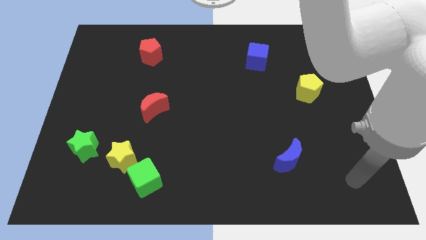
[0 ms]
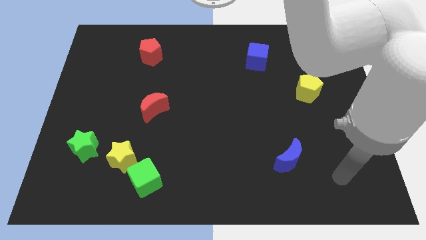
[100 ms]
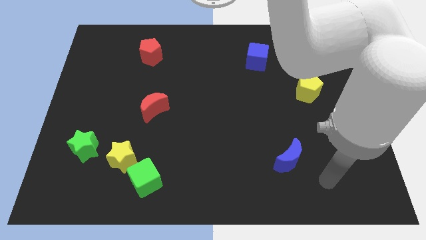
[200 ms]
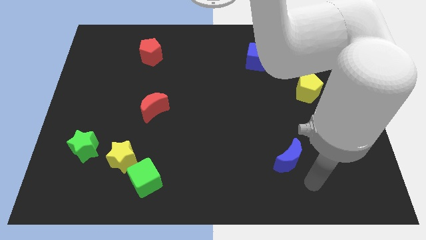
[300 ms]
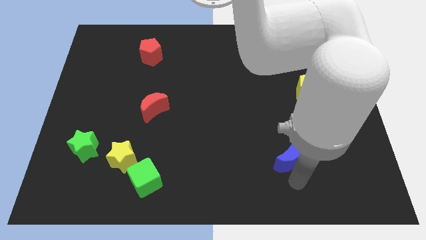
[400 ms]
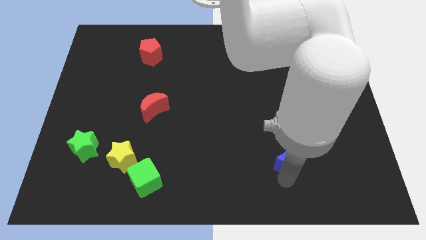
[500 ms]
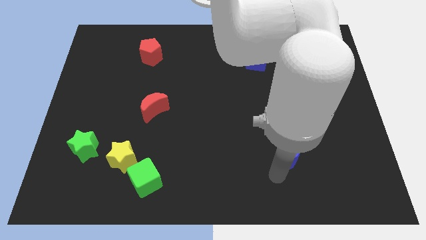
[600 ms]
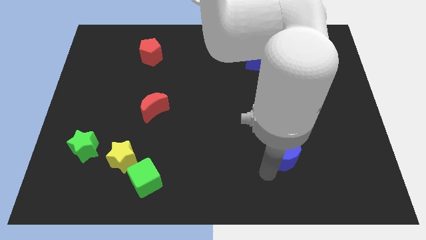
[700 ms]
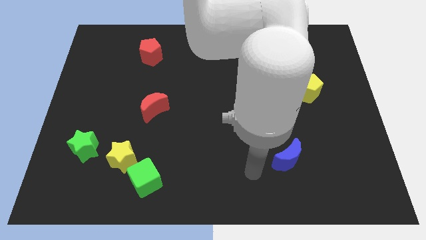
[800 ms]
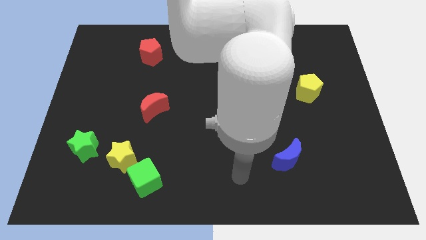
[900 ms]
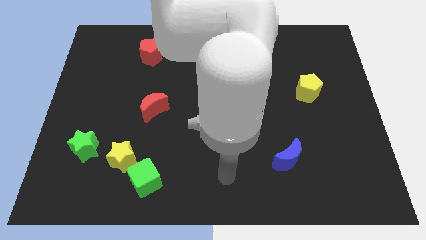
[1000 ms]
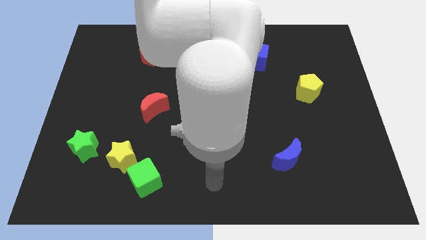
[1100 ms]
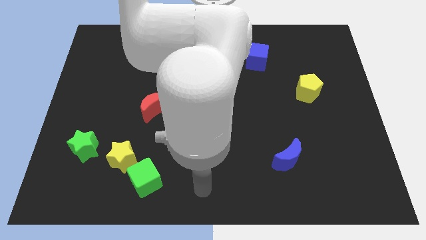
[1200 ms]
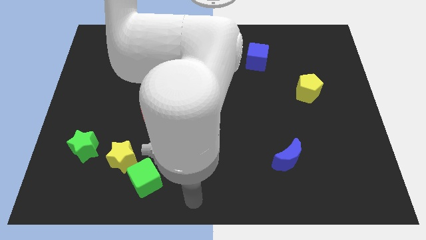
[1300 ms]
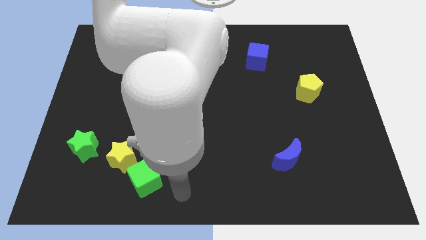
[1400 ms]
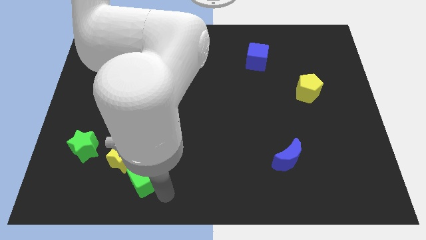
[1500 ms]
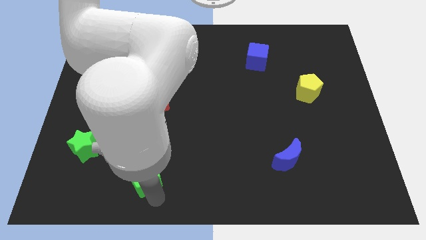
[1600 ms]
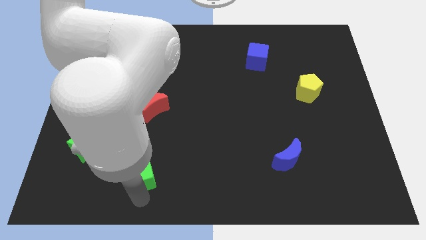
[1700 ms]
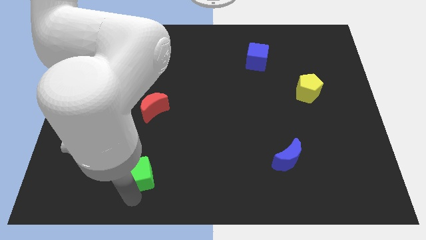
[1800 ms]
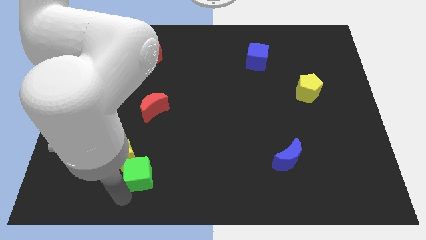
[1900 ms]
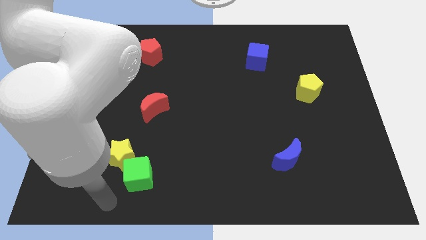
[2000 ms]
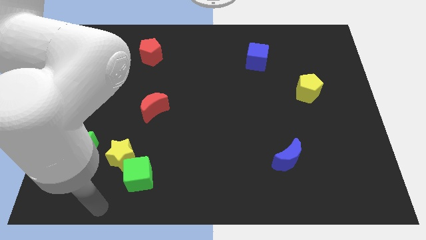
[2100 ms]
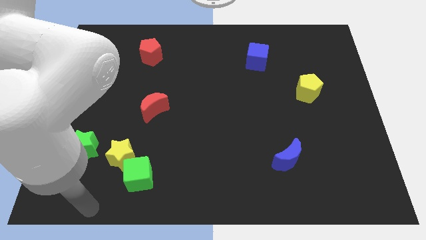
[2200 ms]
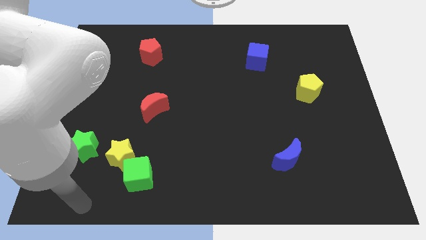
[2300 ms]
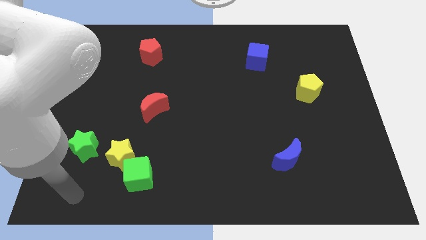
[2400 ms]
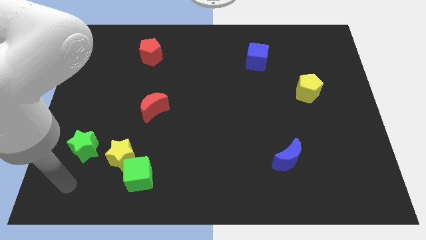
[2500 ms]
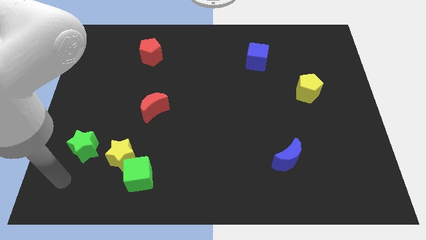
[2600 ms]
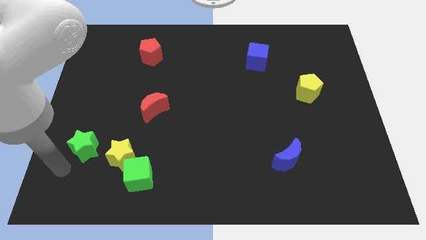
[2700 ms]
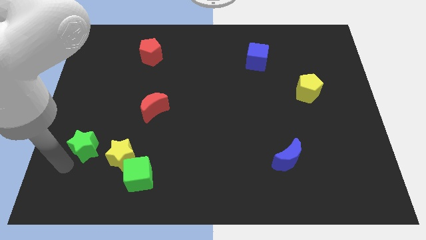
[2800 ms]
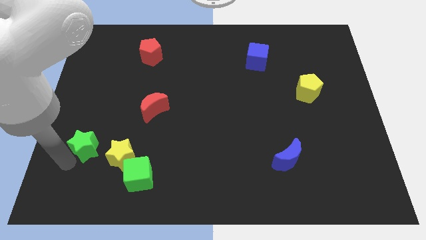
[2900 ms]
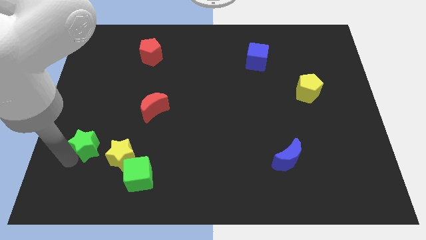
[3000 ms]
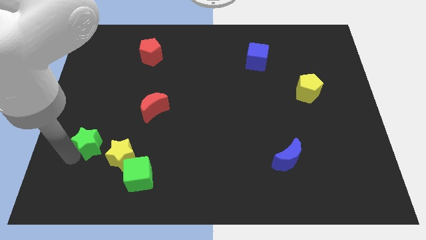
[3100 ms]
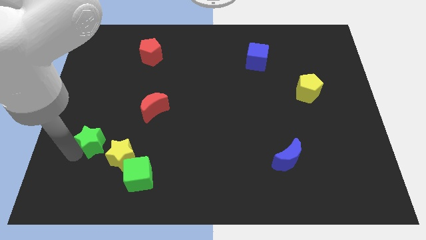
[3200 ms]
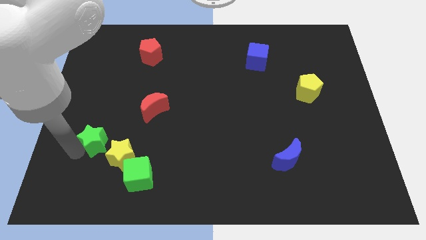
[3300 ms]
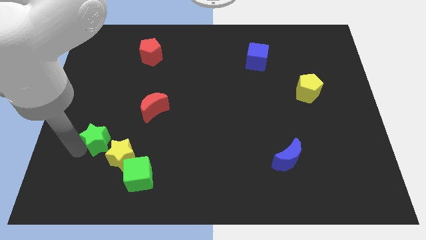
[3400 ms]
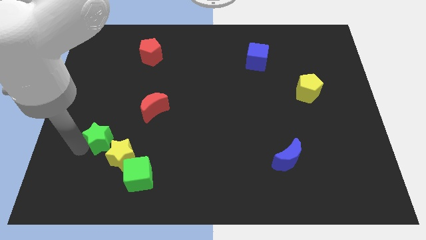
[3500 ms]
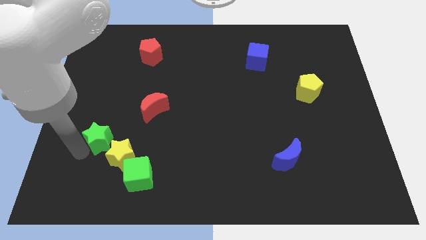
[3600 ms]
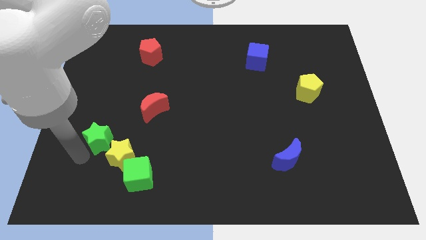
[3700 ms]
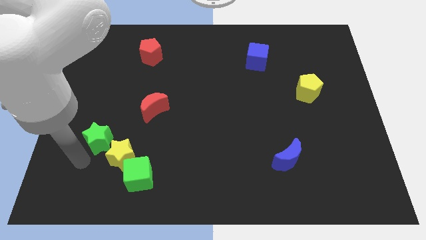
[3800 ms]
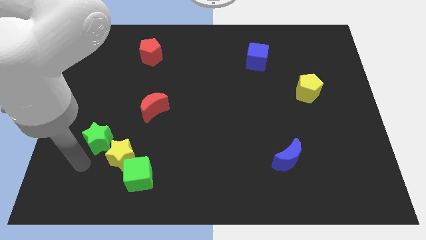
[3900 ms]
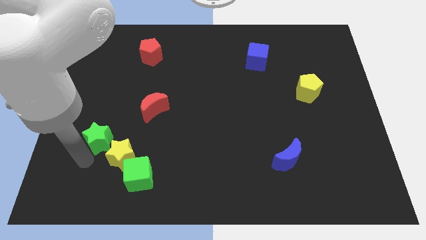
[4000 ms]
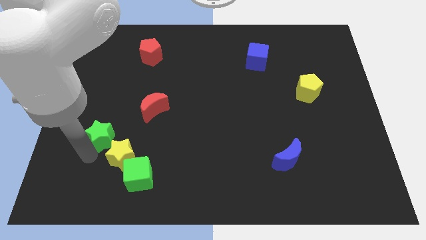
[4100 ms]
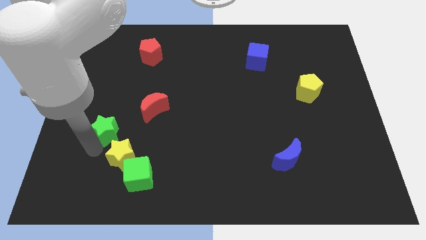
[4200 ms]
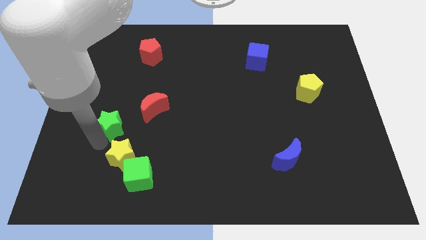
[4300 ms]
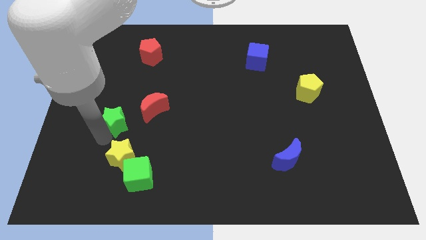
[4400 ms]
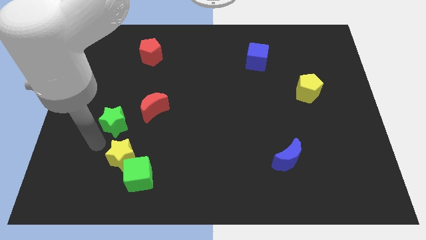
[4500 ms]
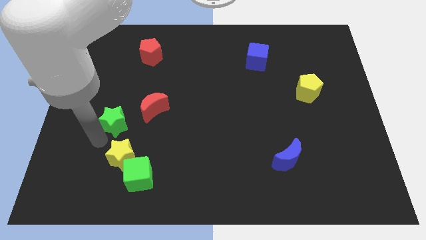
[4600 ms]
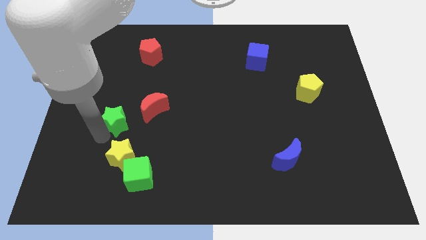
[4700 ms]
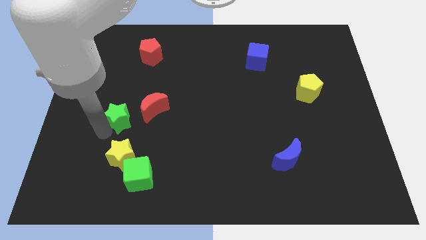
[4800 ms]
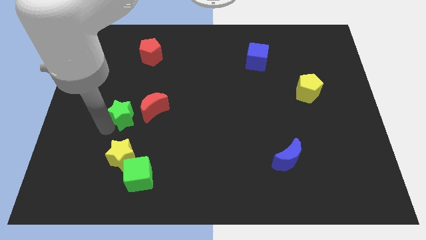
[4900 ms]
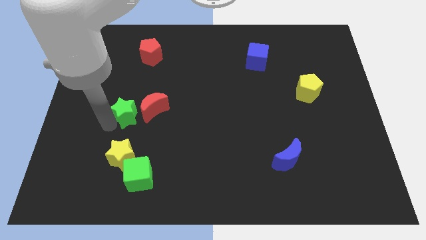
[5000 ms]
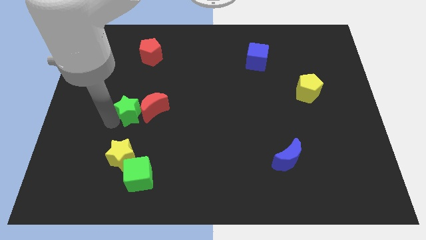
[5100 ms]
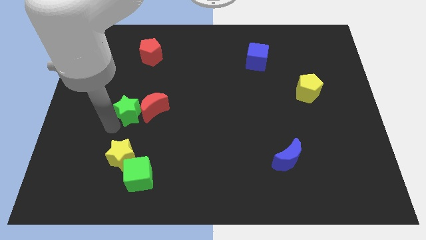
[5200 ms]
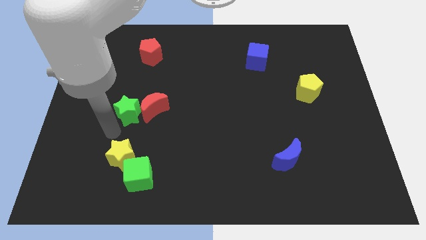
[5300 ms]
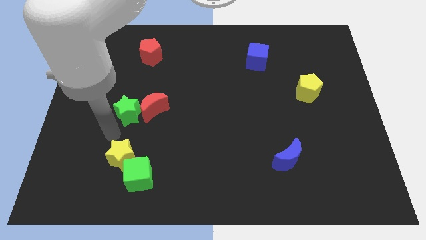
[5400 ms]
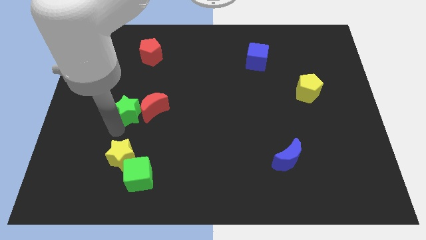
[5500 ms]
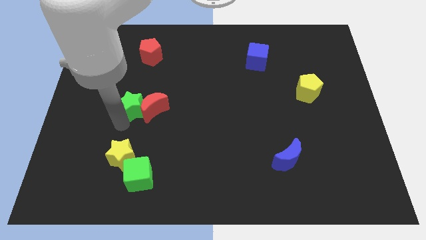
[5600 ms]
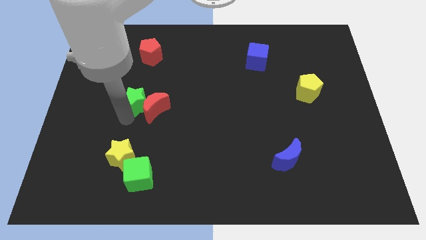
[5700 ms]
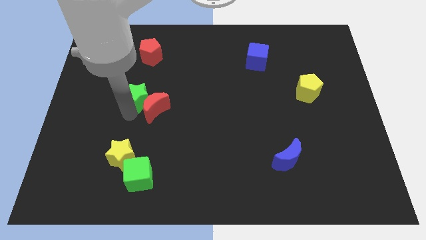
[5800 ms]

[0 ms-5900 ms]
slide the green star above the red moon

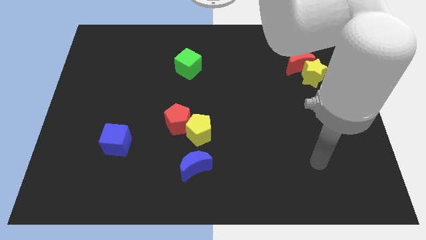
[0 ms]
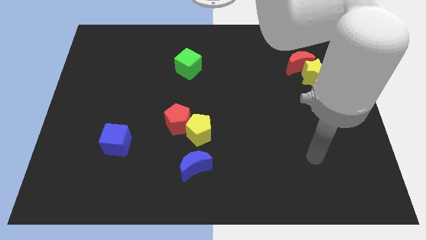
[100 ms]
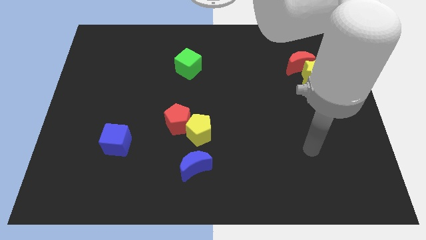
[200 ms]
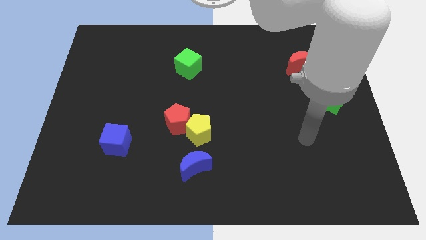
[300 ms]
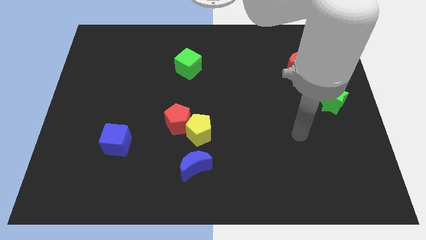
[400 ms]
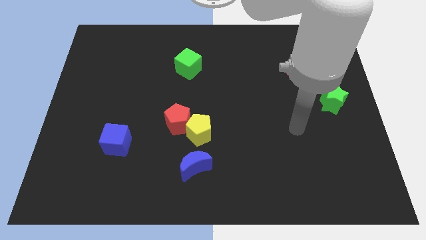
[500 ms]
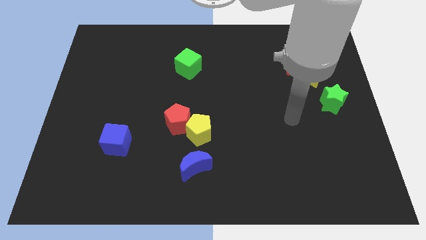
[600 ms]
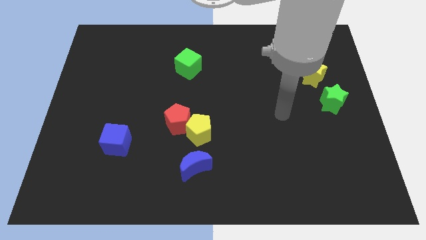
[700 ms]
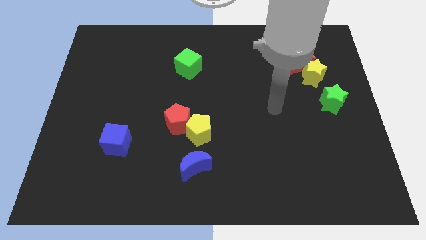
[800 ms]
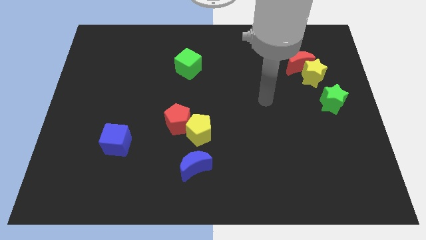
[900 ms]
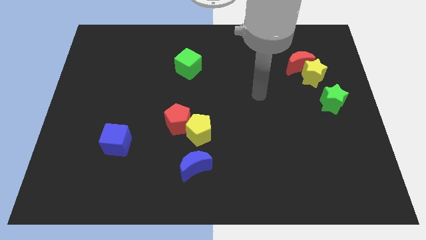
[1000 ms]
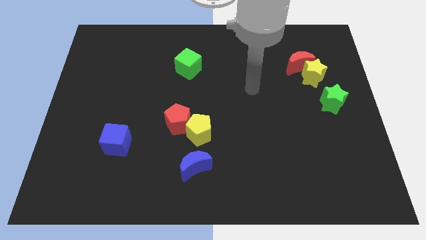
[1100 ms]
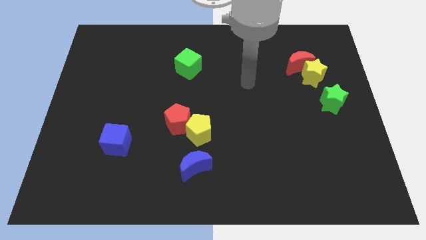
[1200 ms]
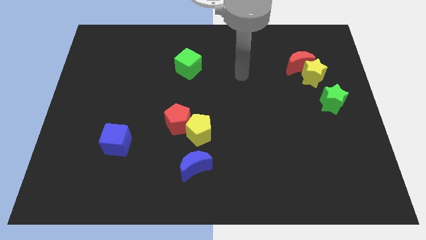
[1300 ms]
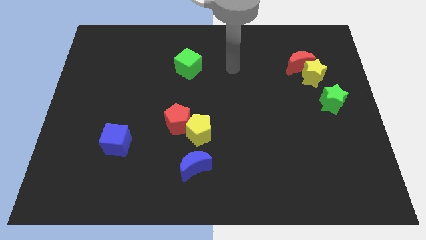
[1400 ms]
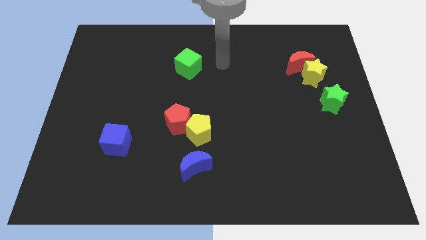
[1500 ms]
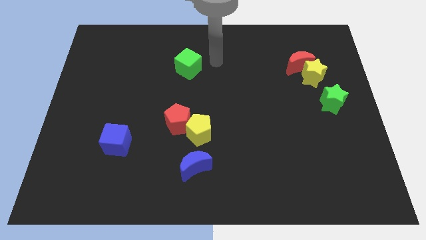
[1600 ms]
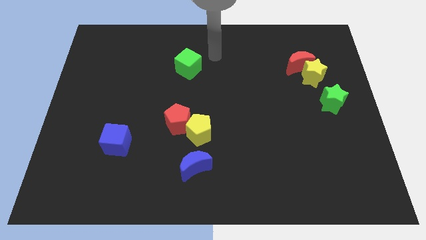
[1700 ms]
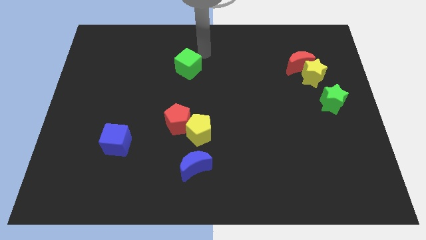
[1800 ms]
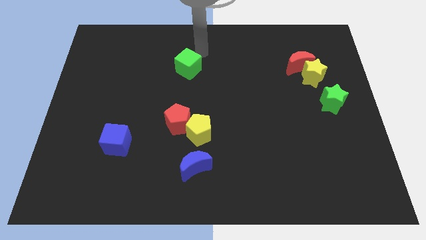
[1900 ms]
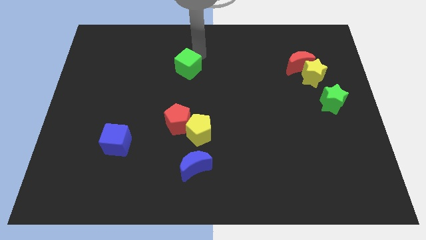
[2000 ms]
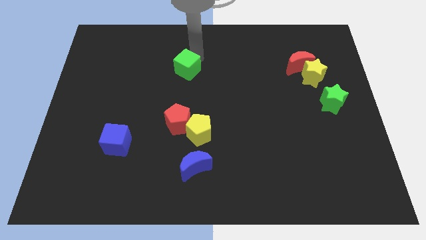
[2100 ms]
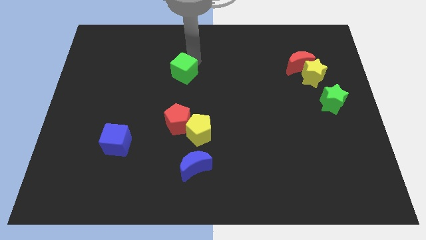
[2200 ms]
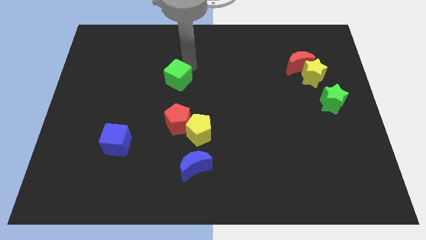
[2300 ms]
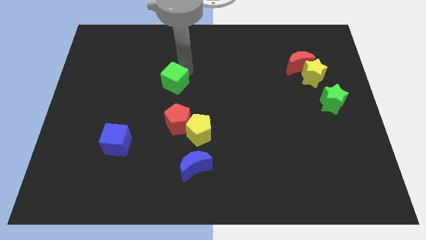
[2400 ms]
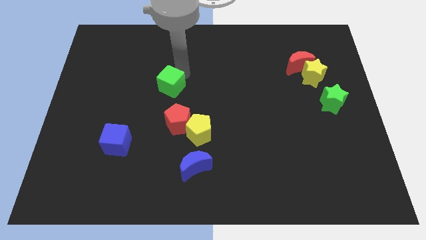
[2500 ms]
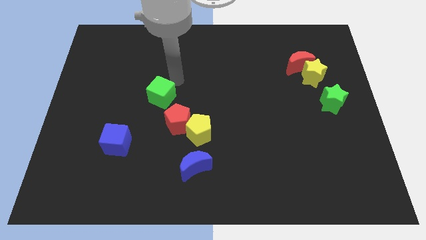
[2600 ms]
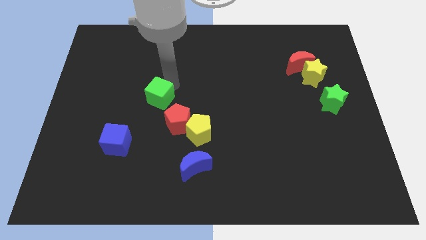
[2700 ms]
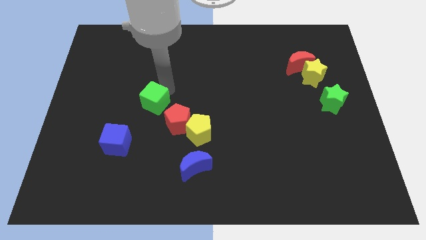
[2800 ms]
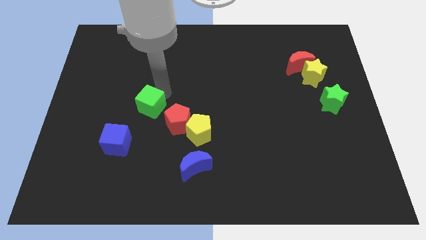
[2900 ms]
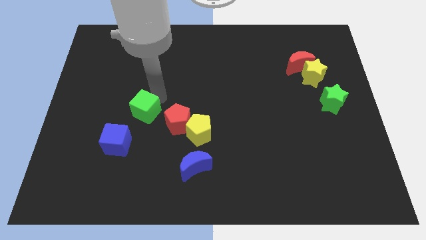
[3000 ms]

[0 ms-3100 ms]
push the green cube to the left side of the red pentagon
